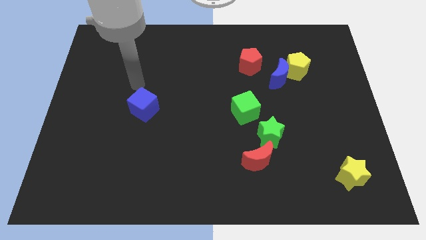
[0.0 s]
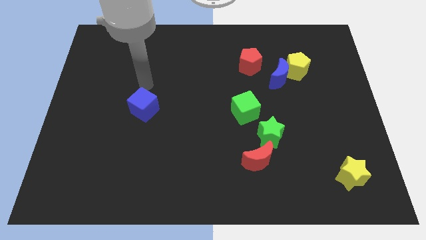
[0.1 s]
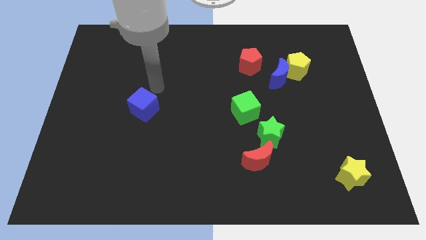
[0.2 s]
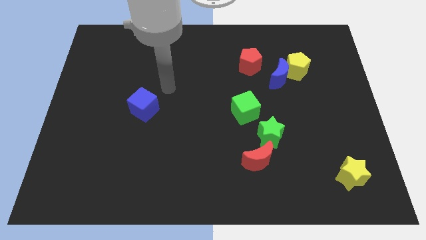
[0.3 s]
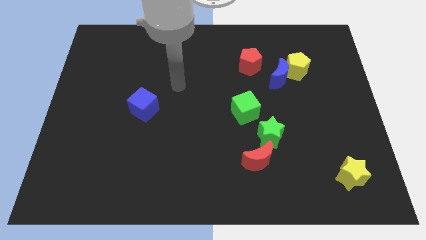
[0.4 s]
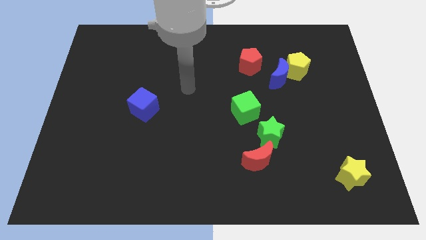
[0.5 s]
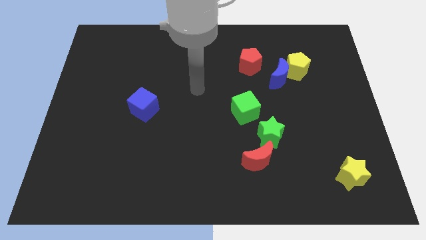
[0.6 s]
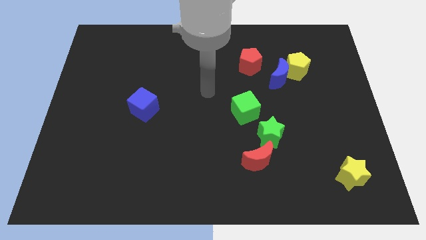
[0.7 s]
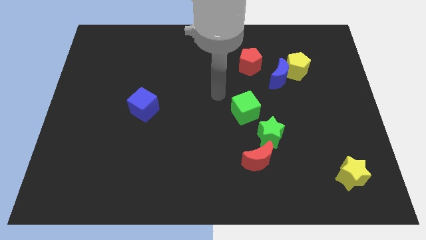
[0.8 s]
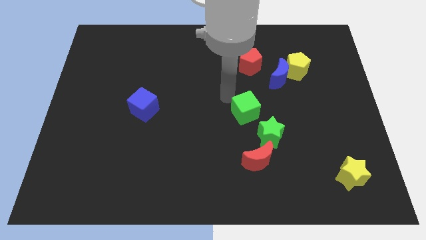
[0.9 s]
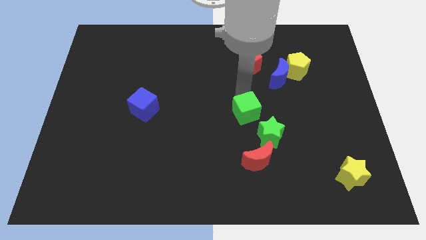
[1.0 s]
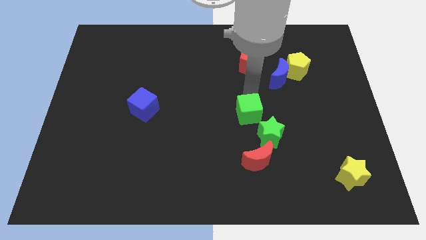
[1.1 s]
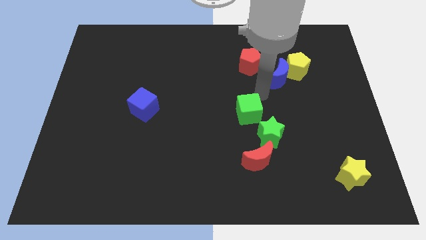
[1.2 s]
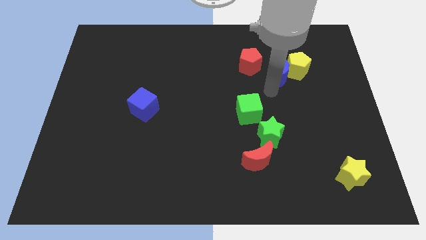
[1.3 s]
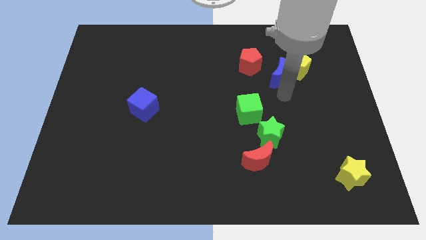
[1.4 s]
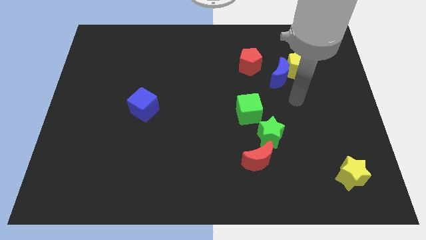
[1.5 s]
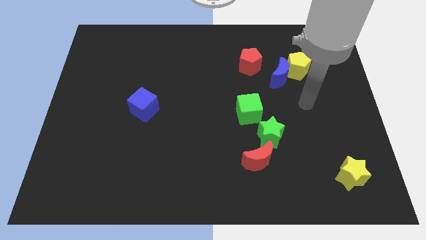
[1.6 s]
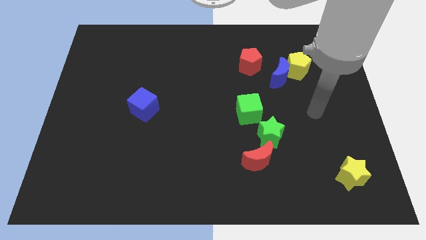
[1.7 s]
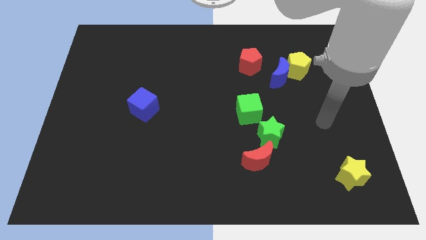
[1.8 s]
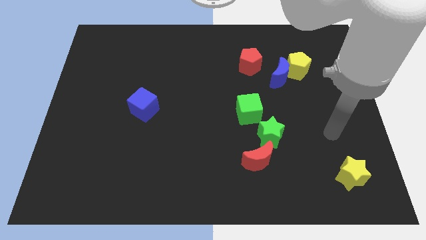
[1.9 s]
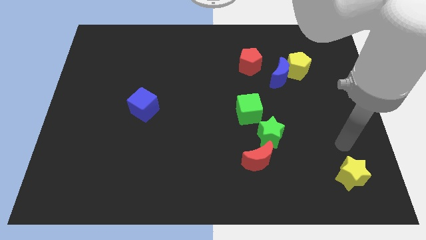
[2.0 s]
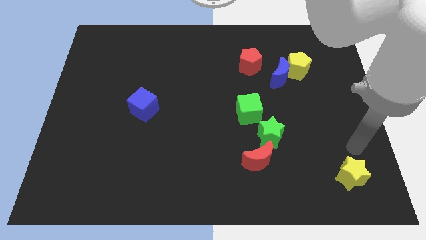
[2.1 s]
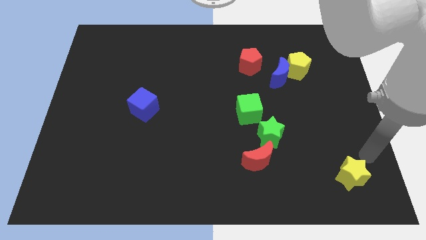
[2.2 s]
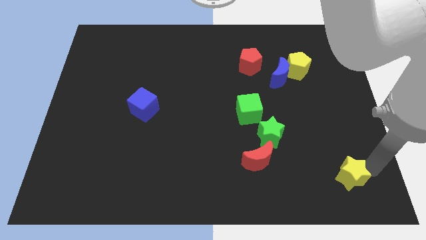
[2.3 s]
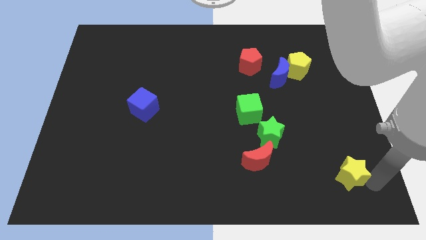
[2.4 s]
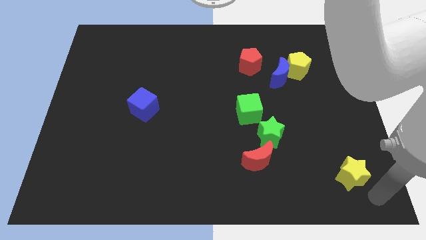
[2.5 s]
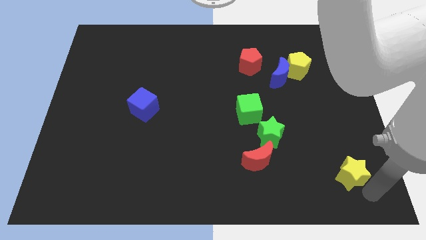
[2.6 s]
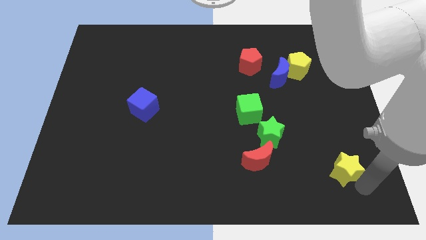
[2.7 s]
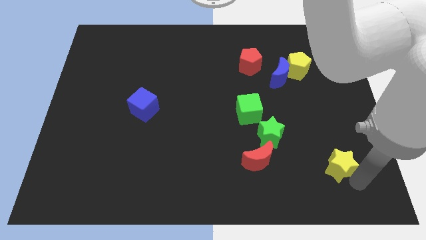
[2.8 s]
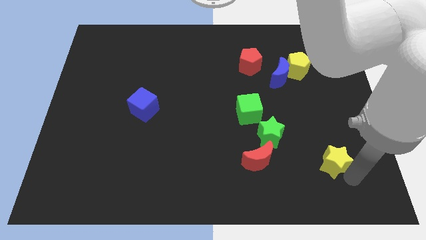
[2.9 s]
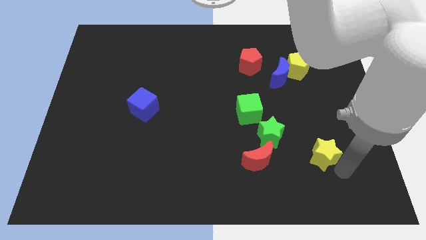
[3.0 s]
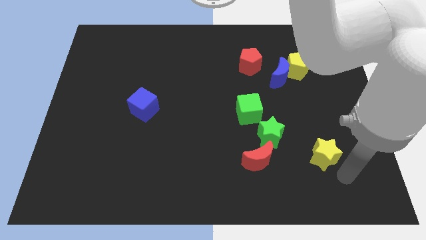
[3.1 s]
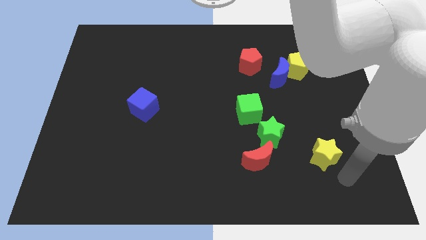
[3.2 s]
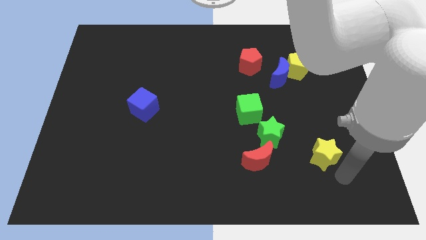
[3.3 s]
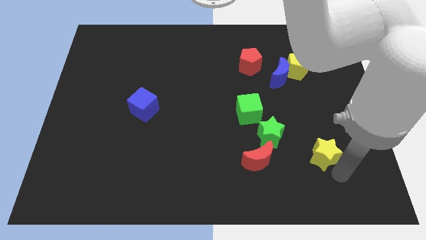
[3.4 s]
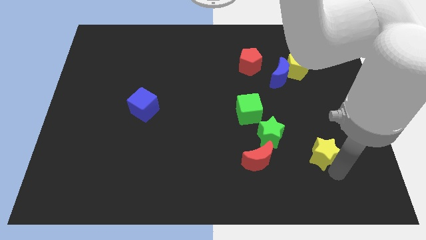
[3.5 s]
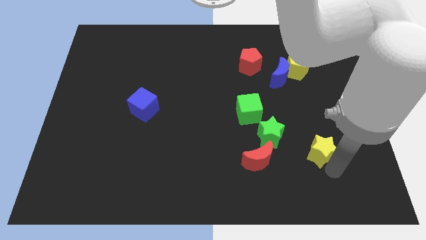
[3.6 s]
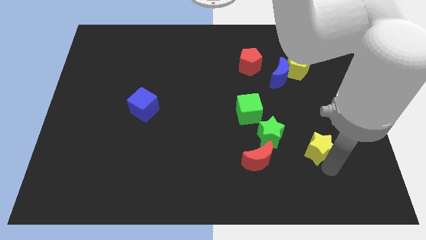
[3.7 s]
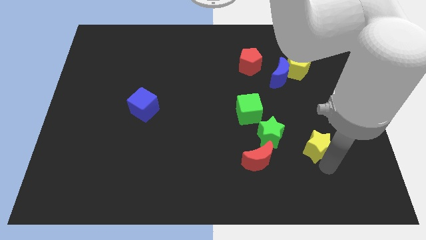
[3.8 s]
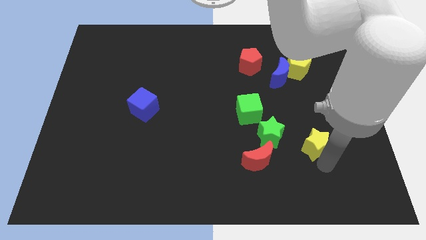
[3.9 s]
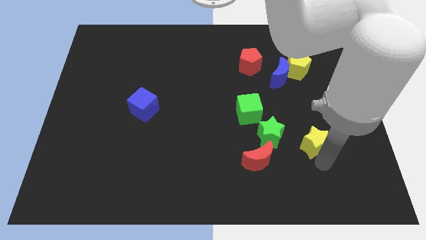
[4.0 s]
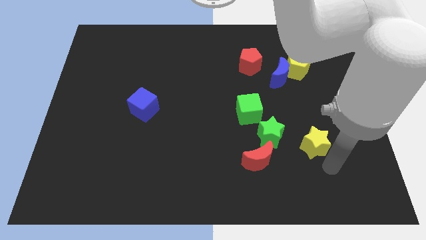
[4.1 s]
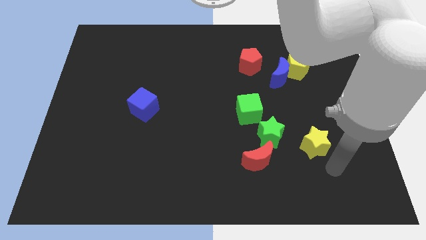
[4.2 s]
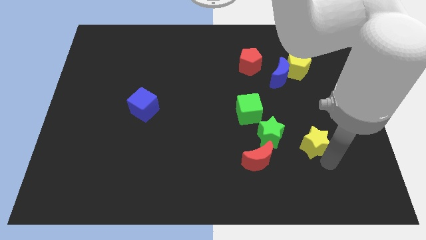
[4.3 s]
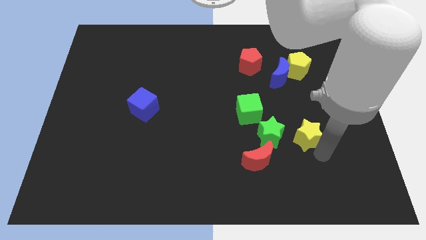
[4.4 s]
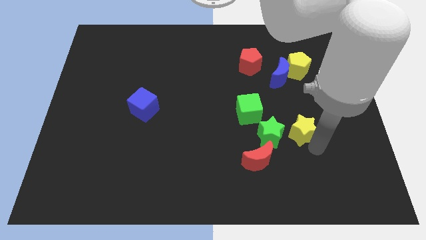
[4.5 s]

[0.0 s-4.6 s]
move the yellow star diagonally up and to the right of the green star

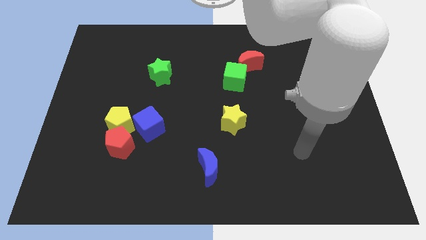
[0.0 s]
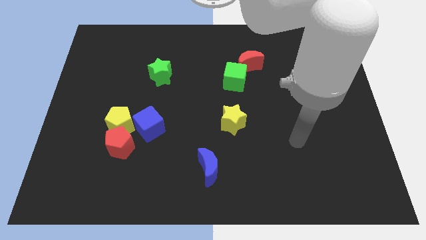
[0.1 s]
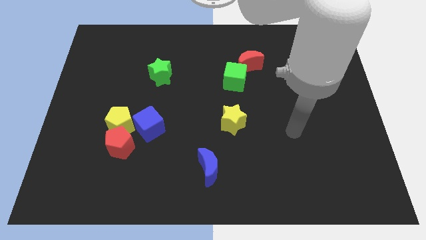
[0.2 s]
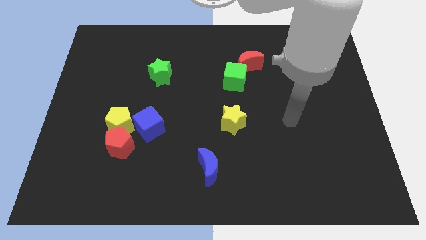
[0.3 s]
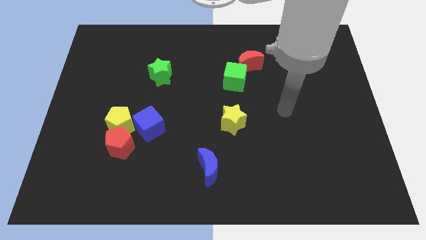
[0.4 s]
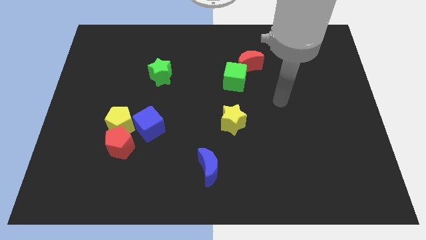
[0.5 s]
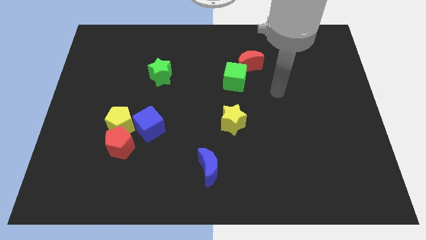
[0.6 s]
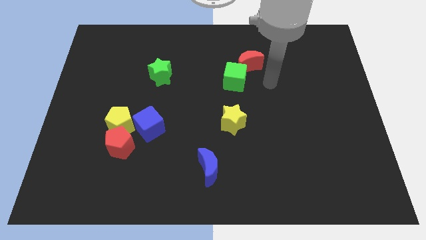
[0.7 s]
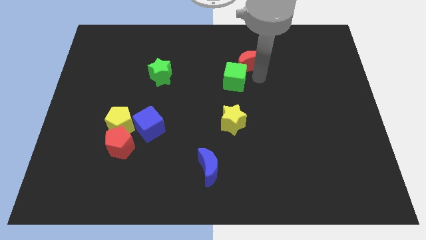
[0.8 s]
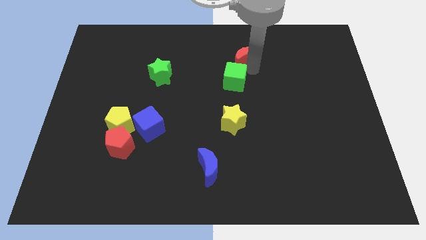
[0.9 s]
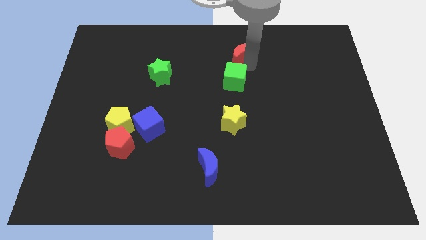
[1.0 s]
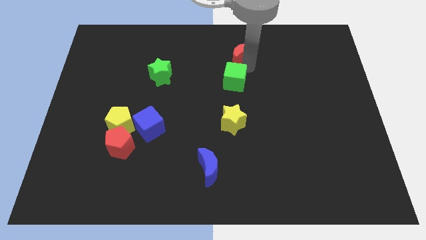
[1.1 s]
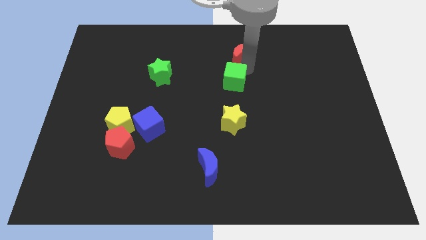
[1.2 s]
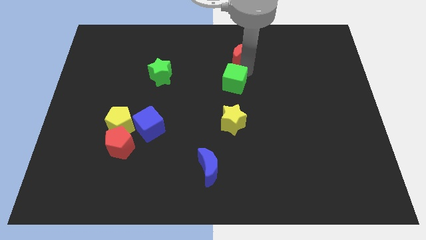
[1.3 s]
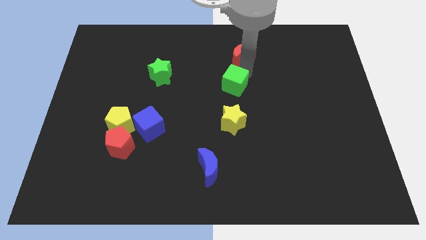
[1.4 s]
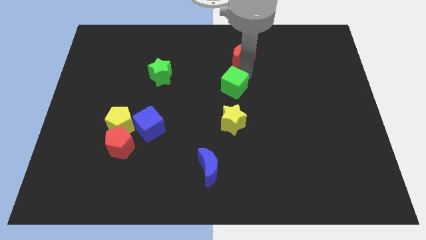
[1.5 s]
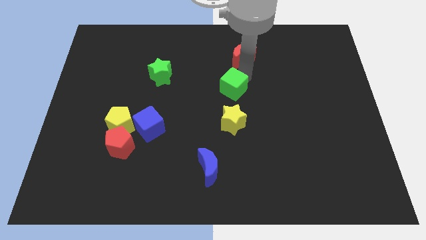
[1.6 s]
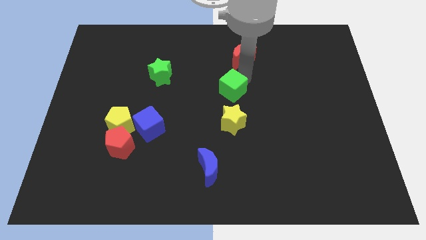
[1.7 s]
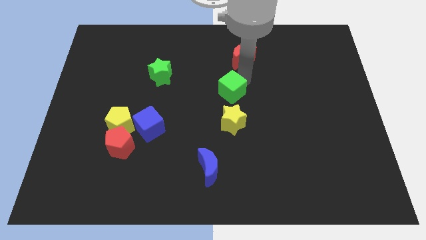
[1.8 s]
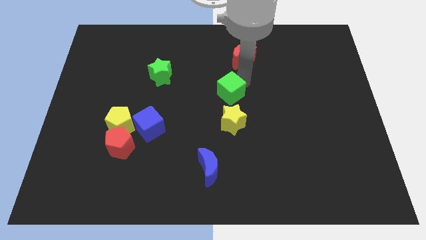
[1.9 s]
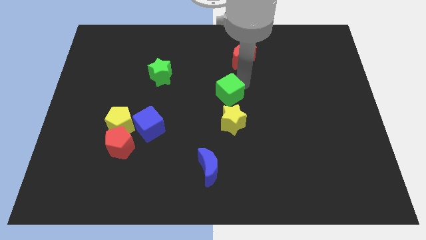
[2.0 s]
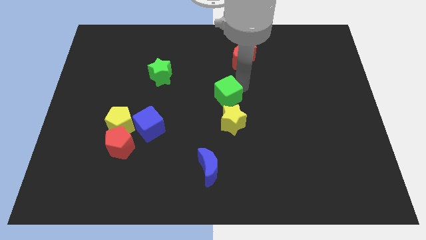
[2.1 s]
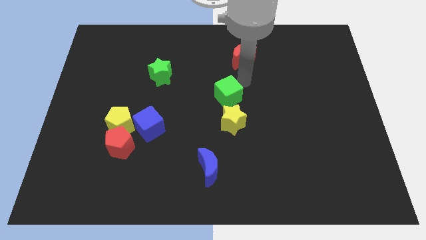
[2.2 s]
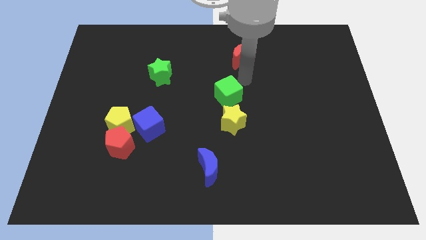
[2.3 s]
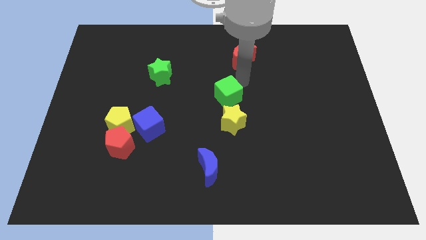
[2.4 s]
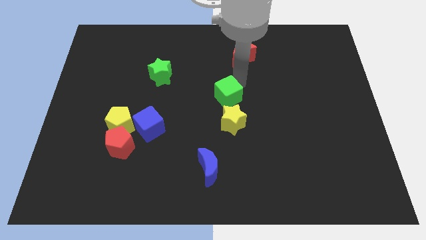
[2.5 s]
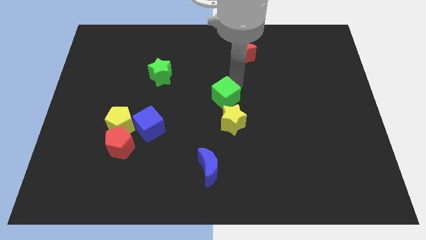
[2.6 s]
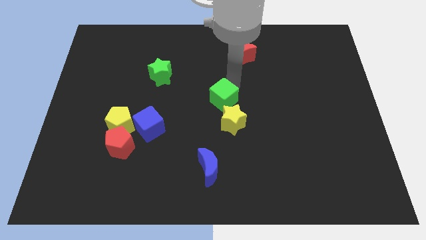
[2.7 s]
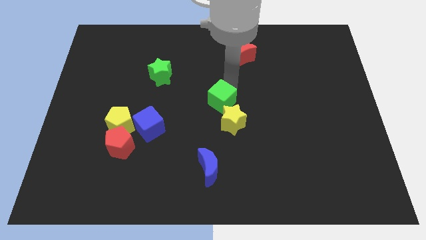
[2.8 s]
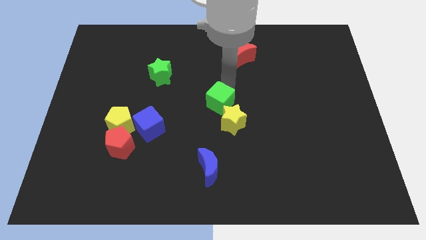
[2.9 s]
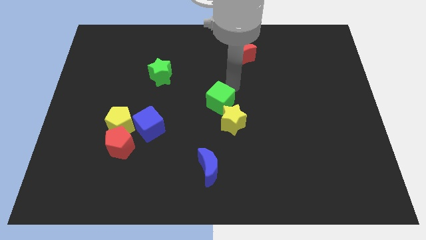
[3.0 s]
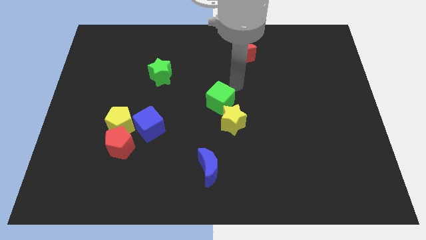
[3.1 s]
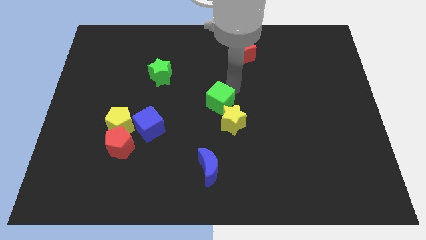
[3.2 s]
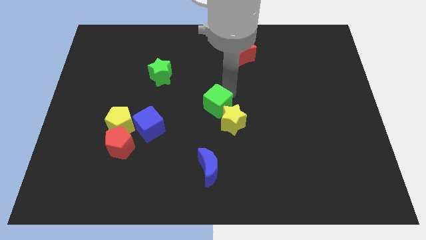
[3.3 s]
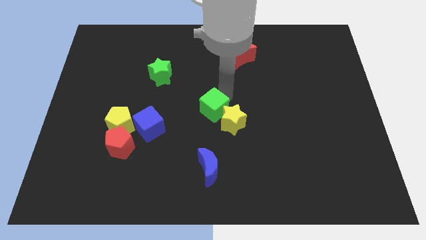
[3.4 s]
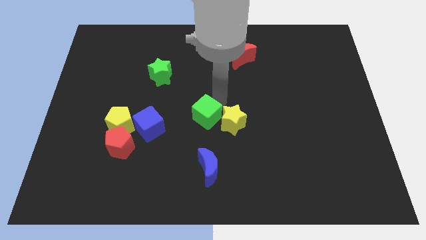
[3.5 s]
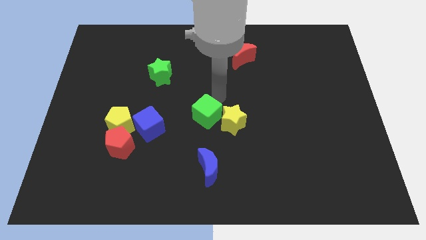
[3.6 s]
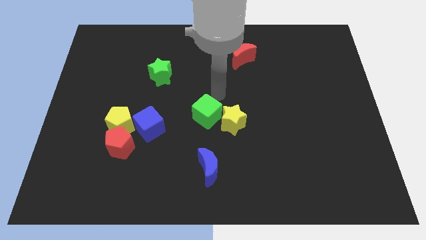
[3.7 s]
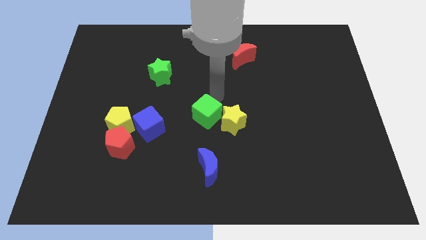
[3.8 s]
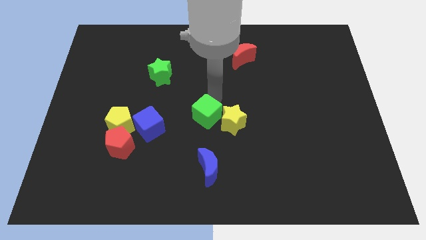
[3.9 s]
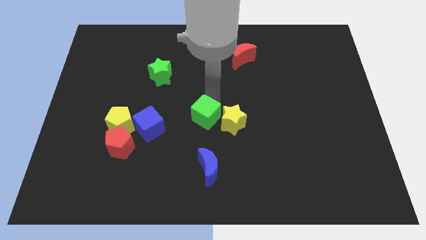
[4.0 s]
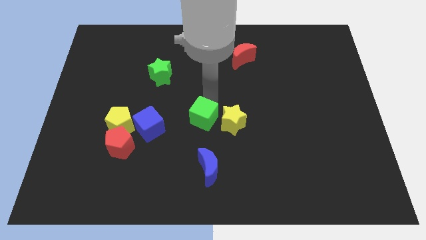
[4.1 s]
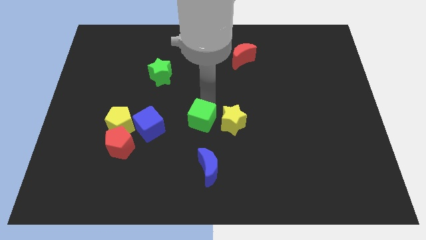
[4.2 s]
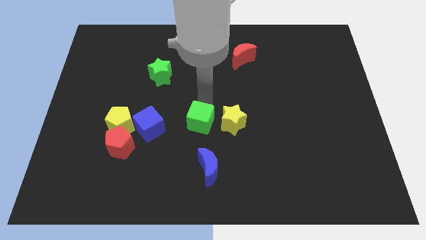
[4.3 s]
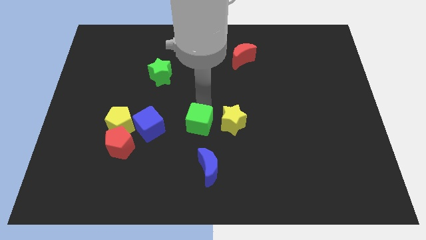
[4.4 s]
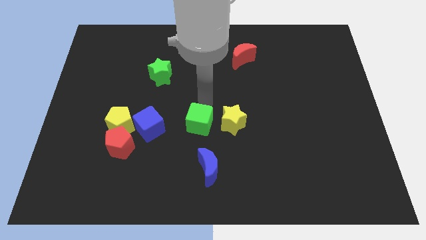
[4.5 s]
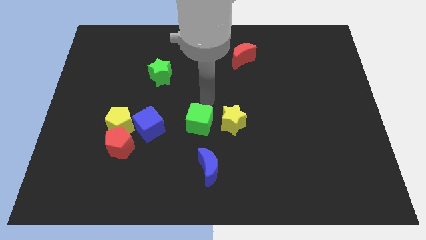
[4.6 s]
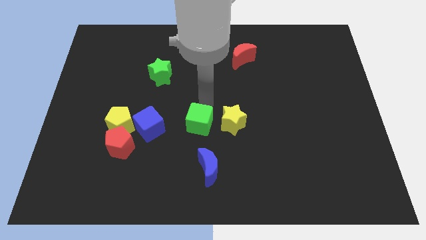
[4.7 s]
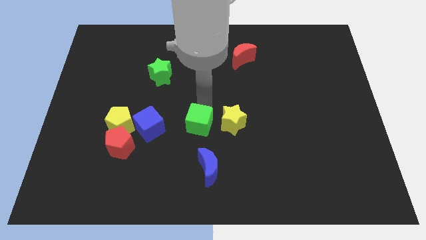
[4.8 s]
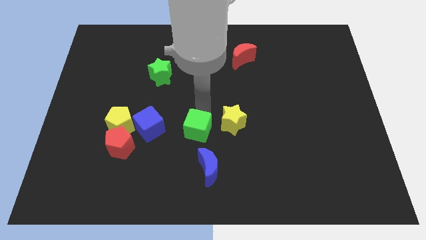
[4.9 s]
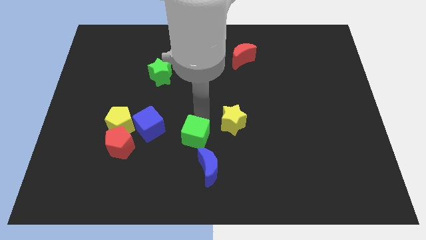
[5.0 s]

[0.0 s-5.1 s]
move the green cube diagonally up and to the left of the blue moon
